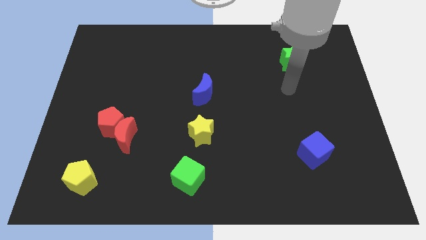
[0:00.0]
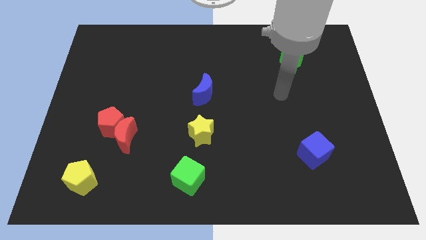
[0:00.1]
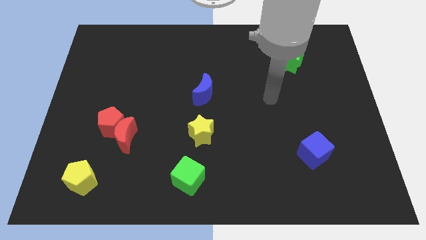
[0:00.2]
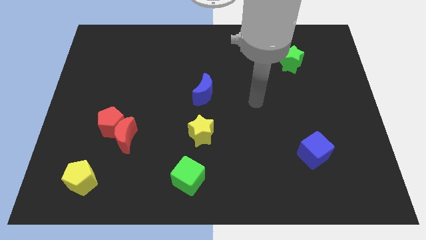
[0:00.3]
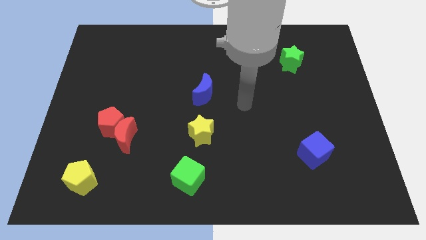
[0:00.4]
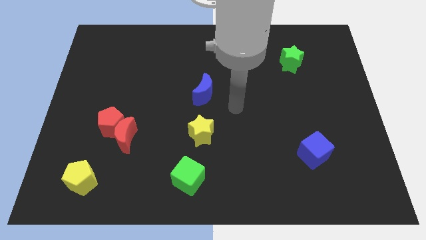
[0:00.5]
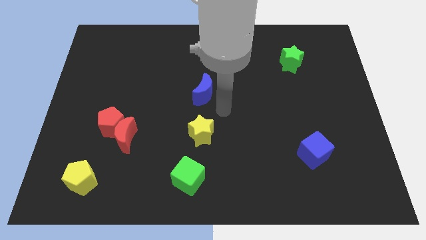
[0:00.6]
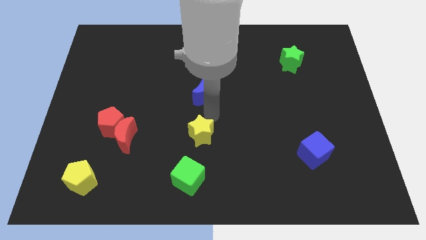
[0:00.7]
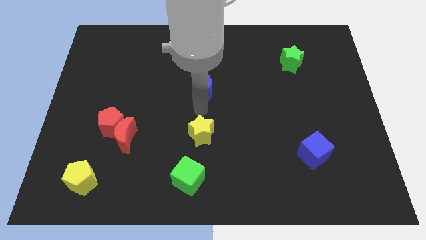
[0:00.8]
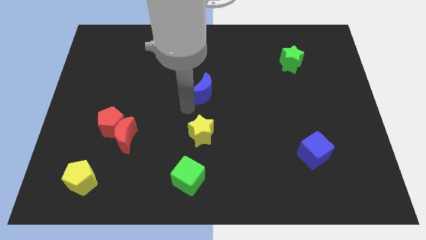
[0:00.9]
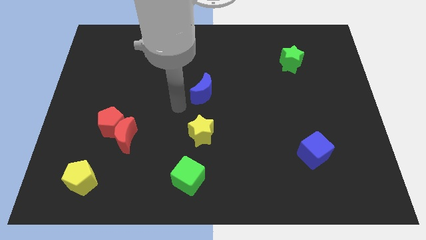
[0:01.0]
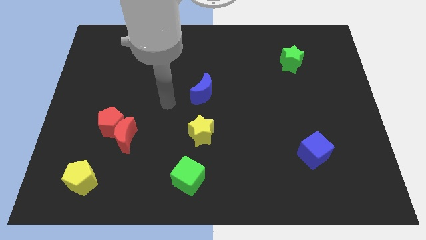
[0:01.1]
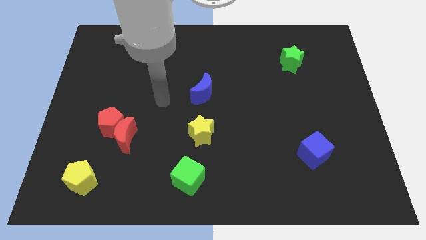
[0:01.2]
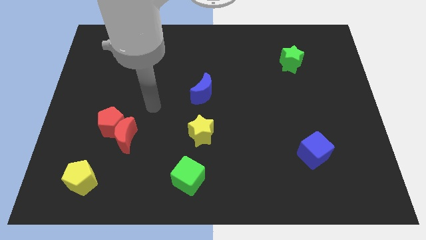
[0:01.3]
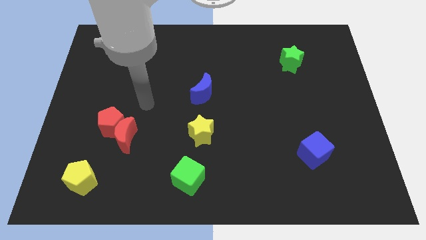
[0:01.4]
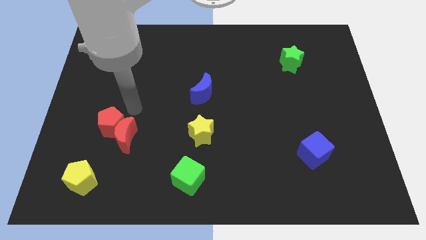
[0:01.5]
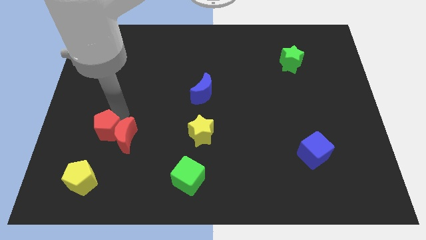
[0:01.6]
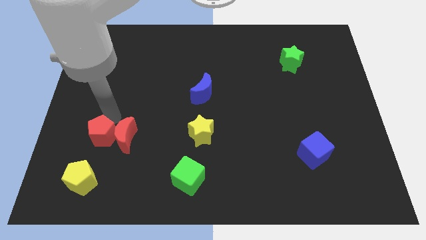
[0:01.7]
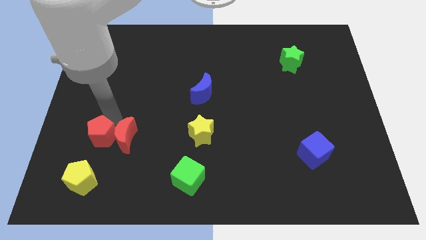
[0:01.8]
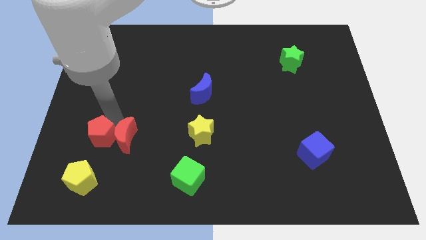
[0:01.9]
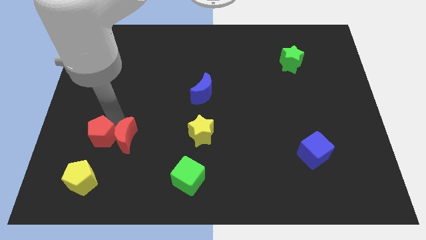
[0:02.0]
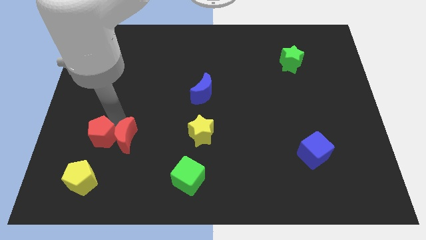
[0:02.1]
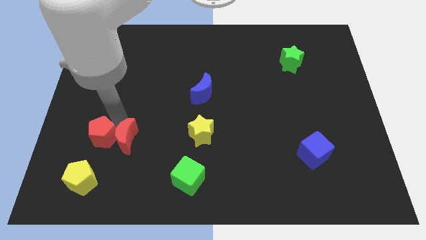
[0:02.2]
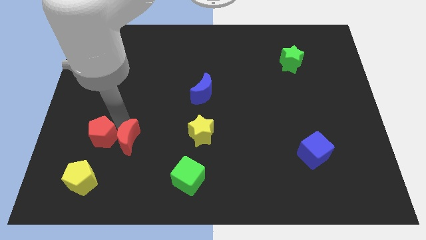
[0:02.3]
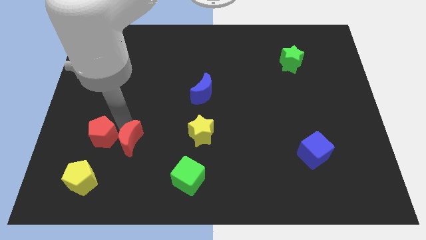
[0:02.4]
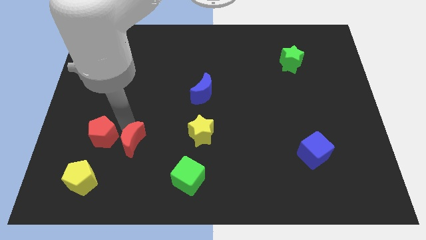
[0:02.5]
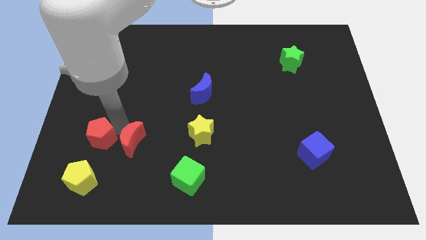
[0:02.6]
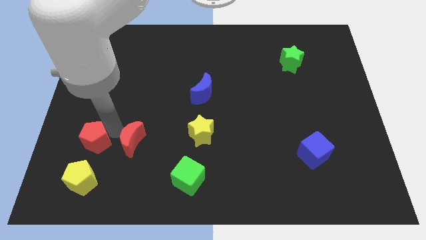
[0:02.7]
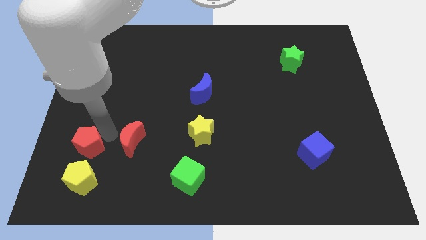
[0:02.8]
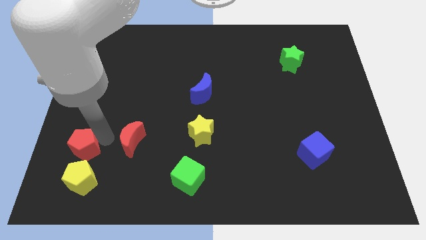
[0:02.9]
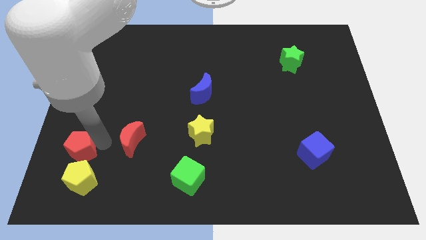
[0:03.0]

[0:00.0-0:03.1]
move the red moon away from the red pentagon

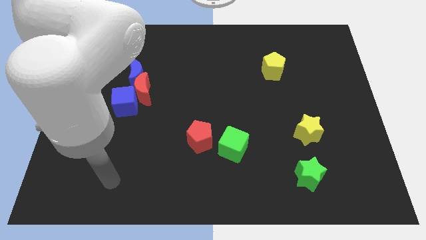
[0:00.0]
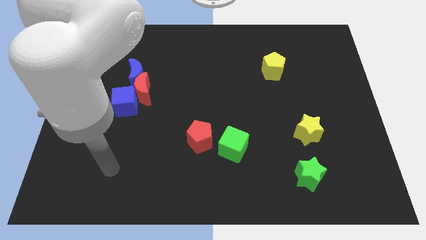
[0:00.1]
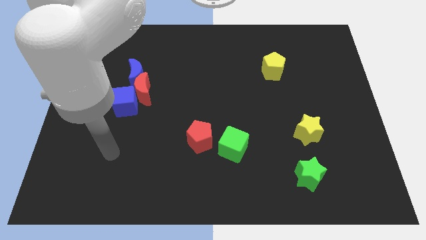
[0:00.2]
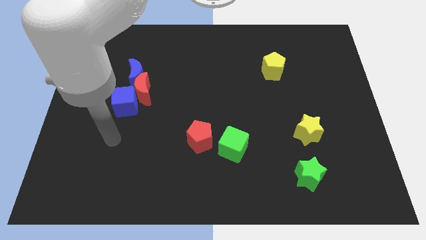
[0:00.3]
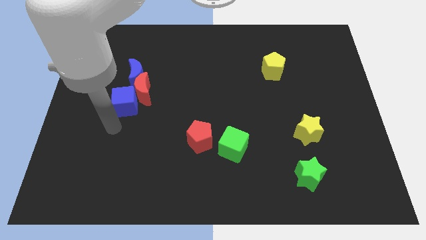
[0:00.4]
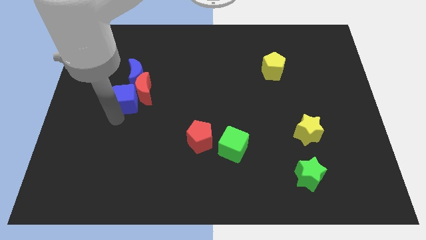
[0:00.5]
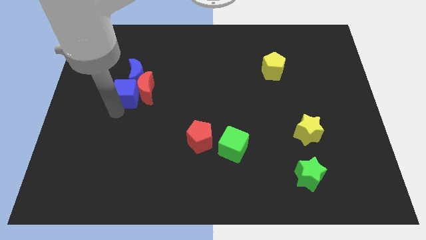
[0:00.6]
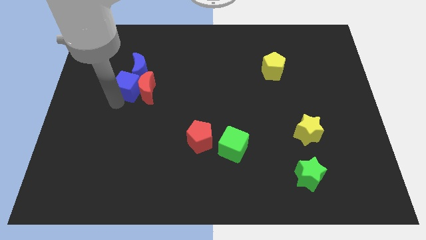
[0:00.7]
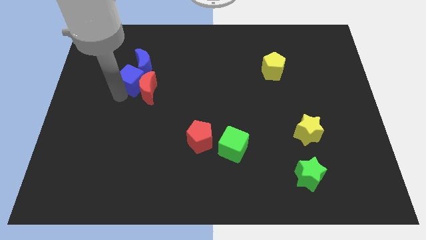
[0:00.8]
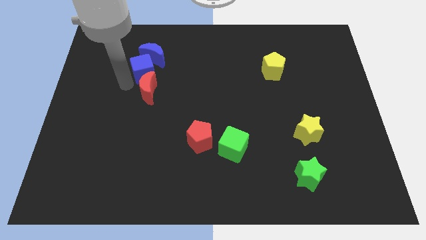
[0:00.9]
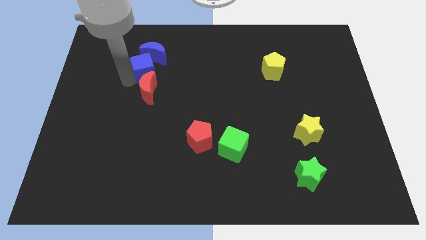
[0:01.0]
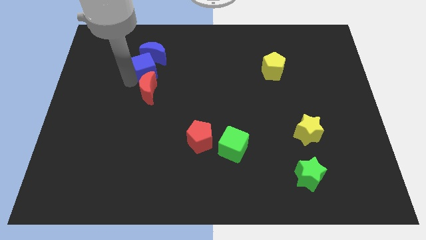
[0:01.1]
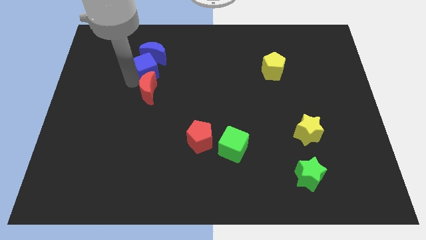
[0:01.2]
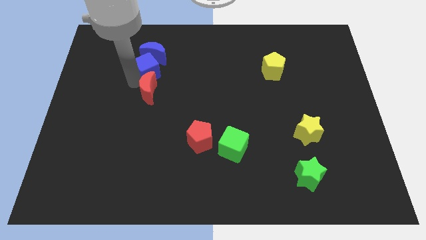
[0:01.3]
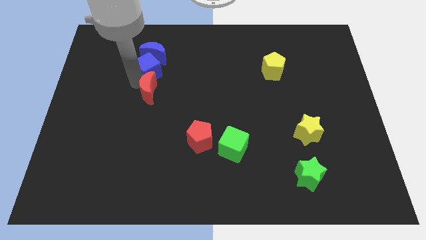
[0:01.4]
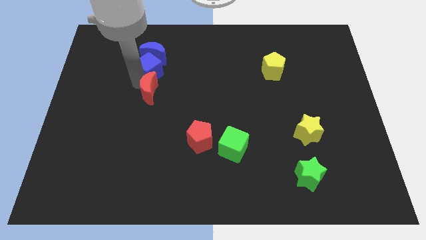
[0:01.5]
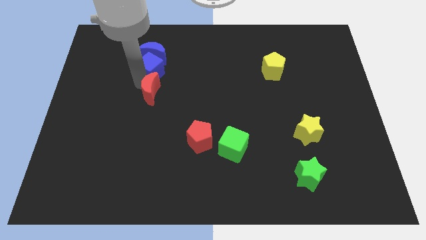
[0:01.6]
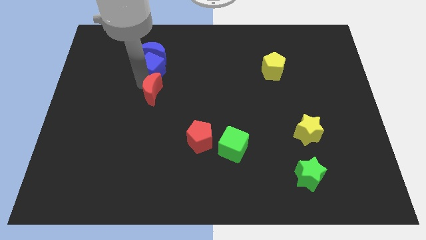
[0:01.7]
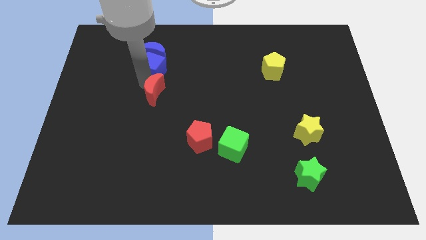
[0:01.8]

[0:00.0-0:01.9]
pull the red moon apart from the blue cube and blue moon

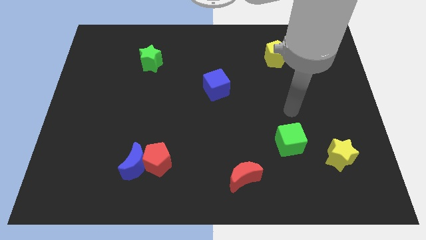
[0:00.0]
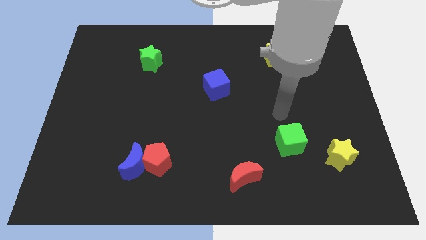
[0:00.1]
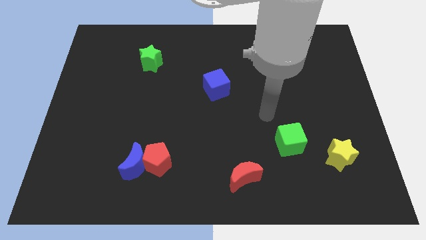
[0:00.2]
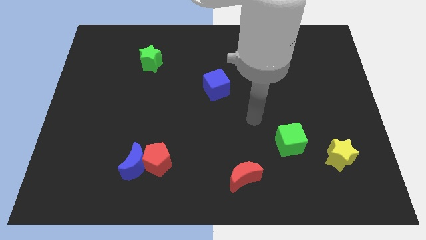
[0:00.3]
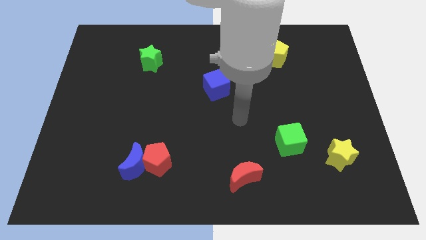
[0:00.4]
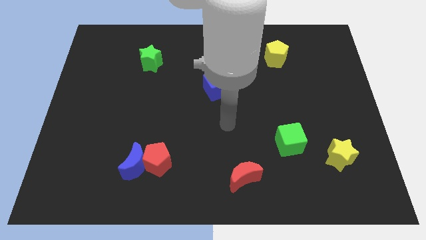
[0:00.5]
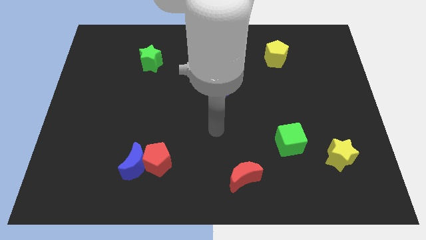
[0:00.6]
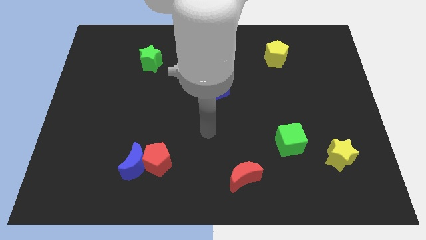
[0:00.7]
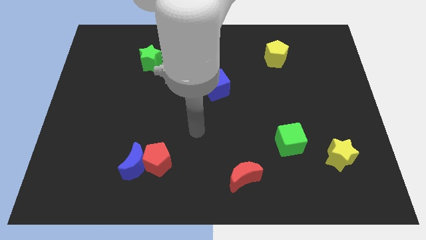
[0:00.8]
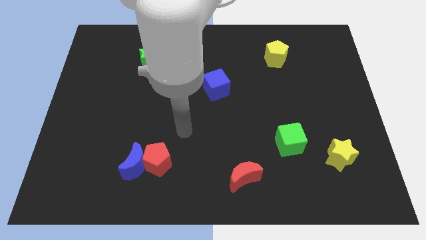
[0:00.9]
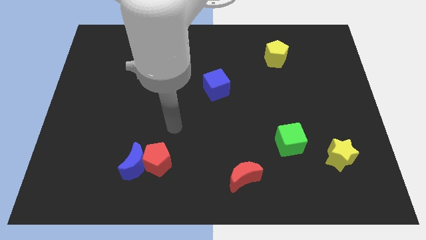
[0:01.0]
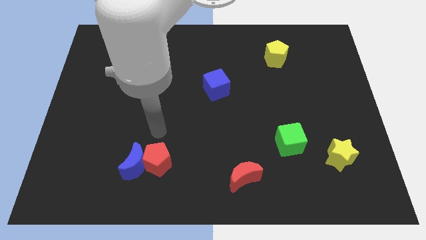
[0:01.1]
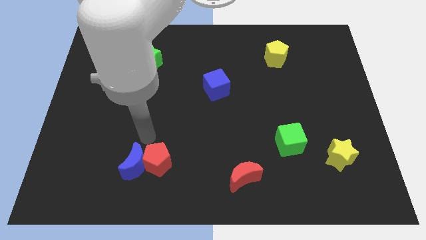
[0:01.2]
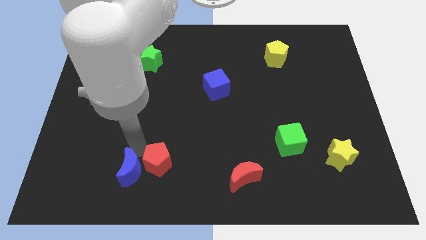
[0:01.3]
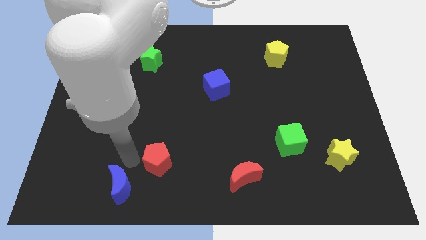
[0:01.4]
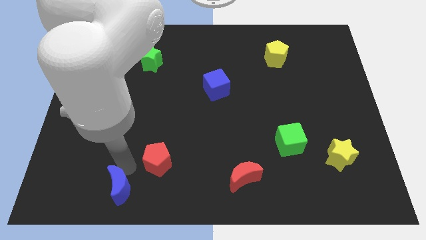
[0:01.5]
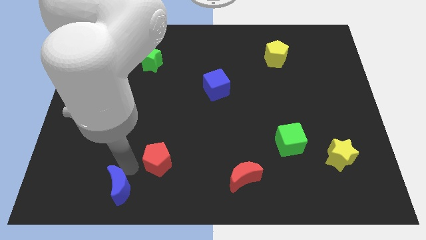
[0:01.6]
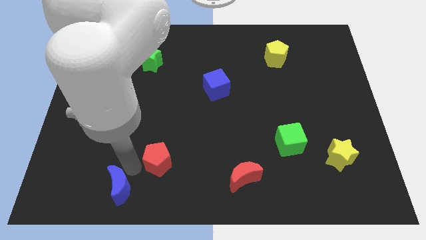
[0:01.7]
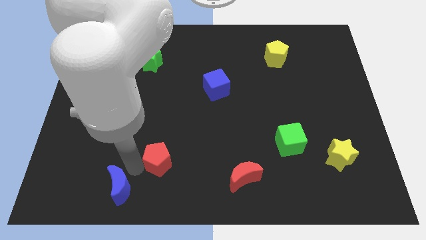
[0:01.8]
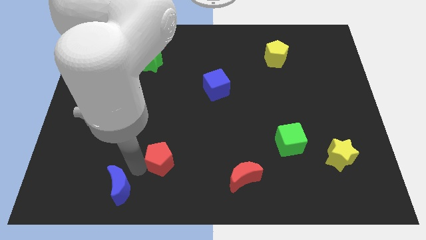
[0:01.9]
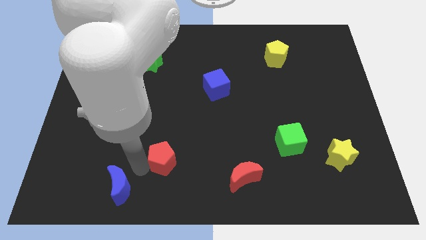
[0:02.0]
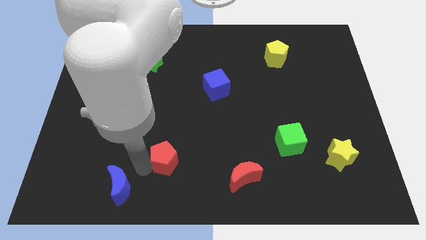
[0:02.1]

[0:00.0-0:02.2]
move the red pentagon away from the blue moon

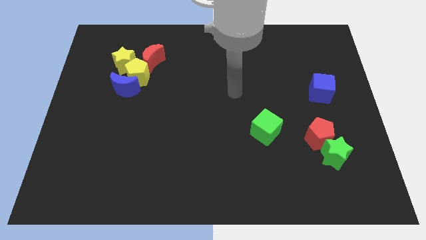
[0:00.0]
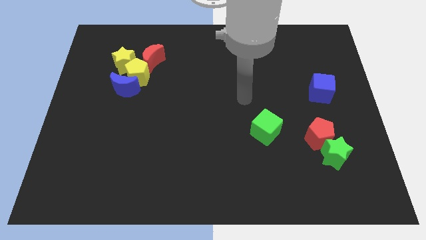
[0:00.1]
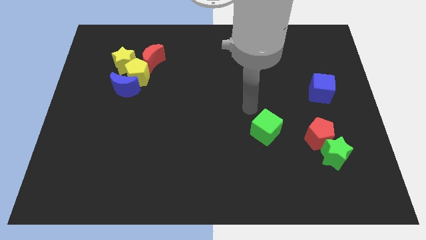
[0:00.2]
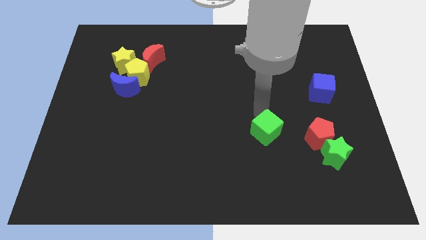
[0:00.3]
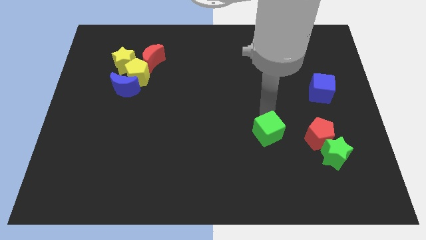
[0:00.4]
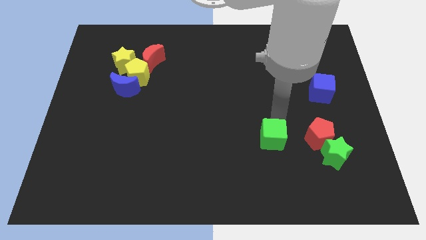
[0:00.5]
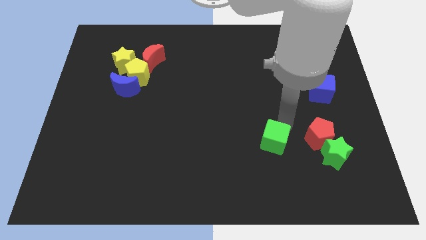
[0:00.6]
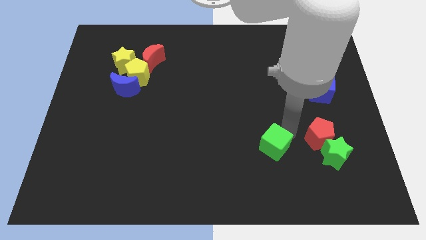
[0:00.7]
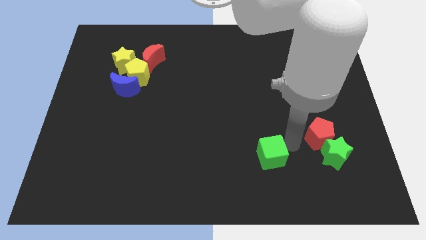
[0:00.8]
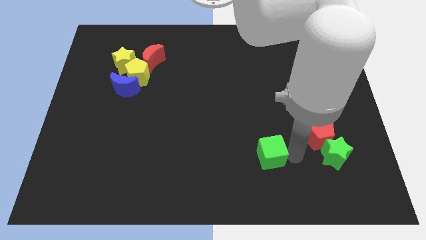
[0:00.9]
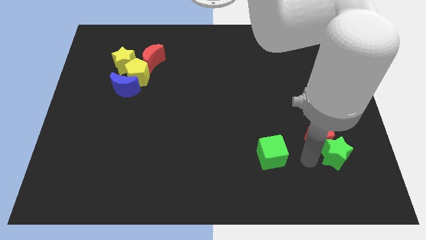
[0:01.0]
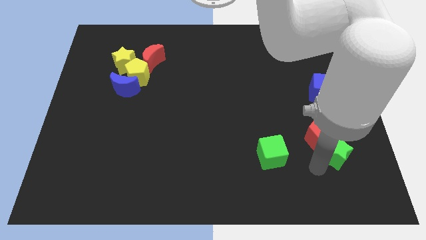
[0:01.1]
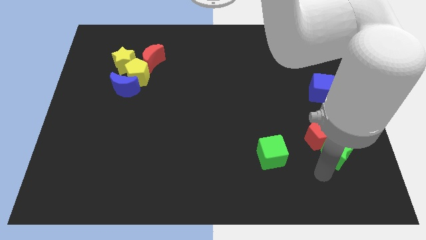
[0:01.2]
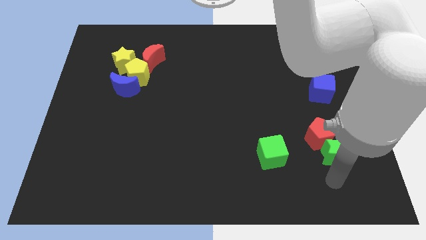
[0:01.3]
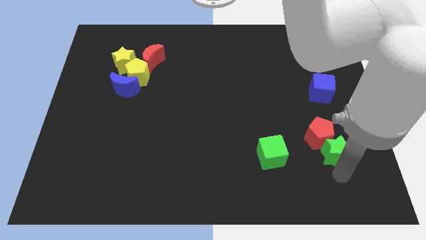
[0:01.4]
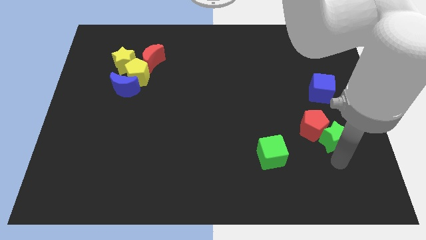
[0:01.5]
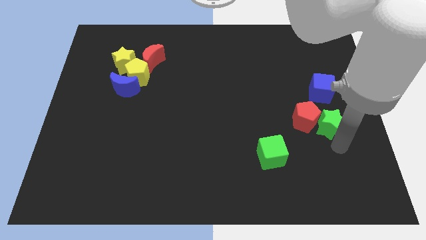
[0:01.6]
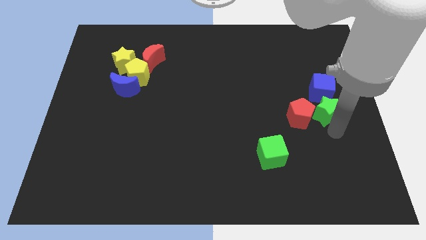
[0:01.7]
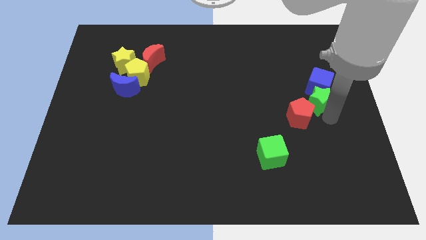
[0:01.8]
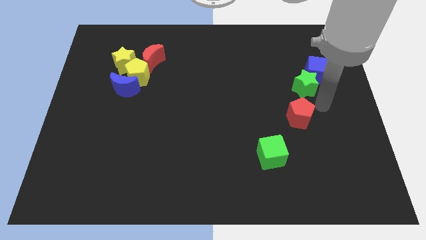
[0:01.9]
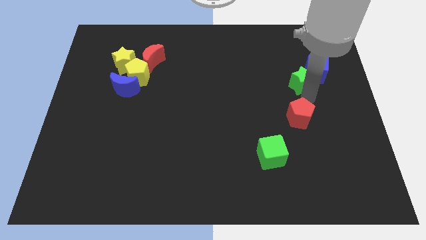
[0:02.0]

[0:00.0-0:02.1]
move the red pentagon away from the green star
